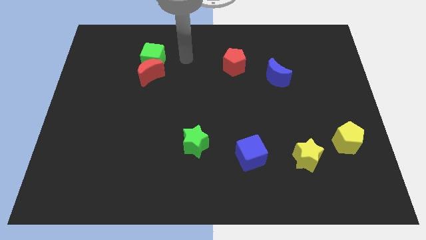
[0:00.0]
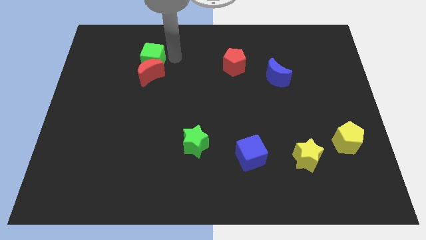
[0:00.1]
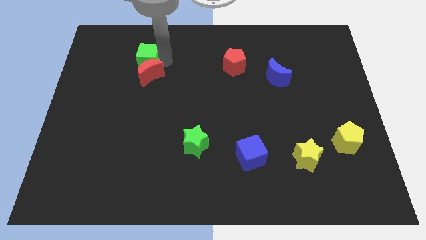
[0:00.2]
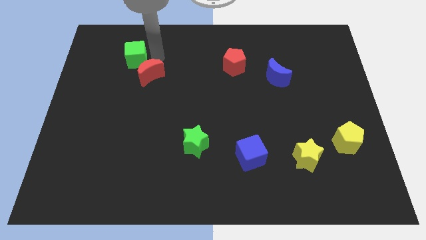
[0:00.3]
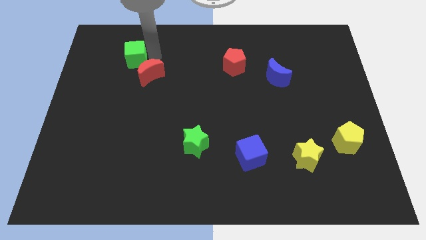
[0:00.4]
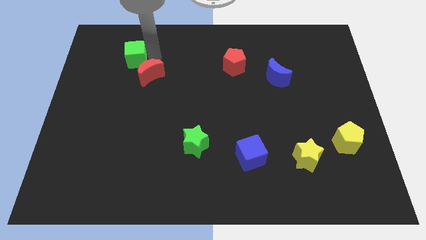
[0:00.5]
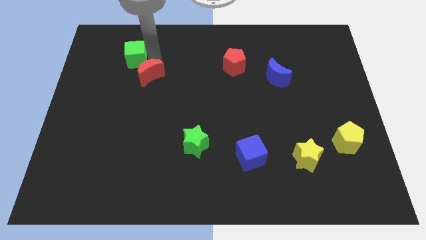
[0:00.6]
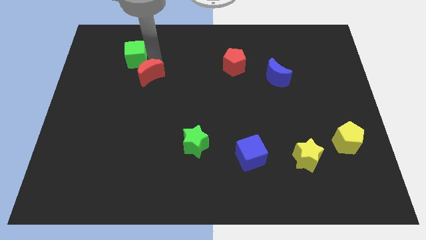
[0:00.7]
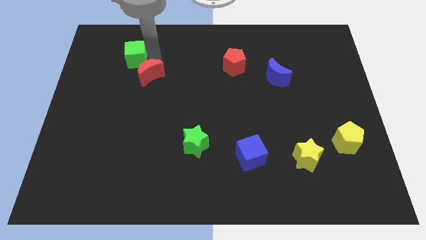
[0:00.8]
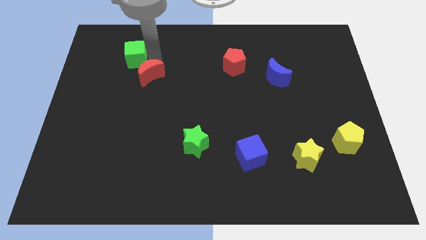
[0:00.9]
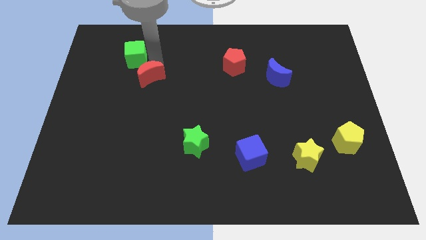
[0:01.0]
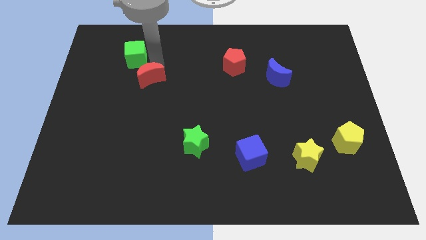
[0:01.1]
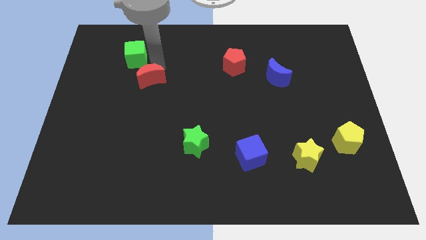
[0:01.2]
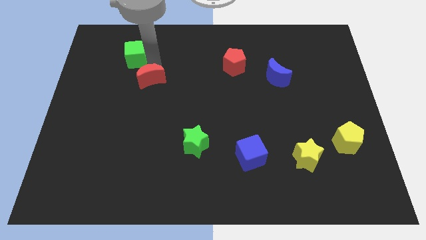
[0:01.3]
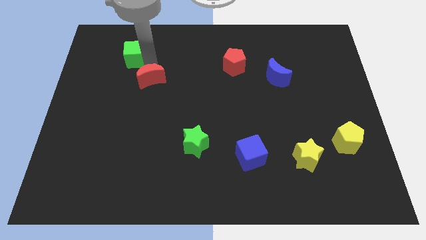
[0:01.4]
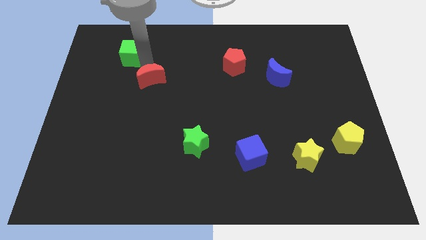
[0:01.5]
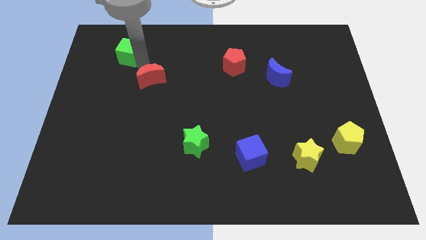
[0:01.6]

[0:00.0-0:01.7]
move the red moon away from the green cube

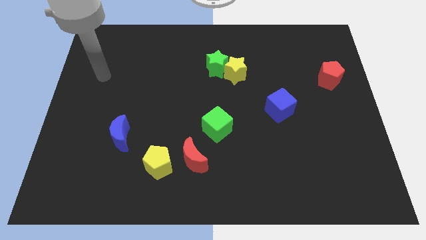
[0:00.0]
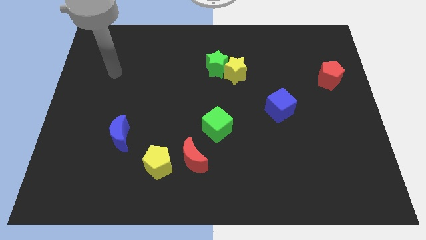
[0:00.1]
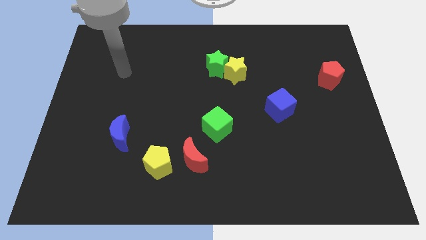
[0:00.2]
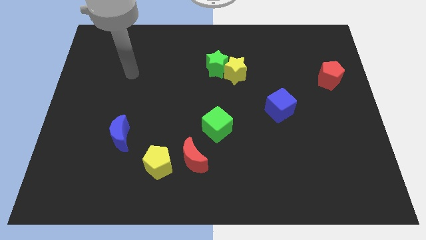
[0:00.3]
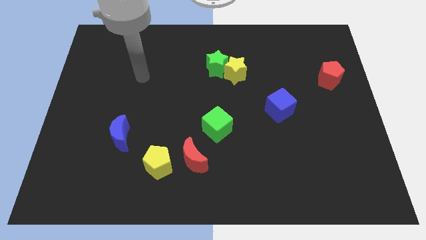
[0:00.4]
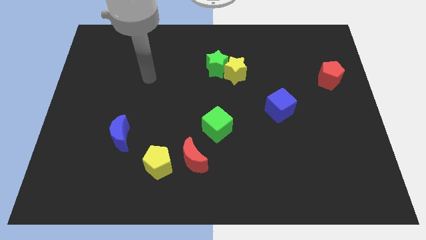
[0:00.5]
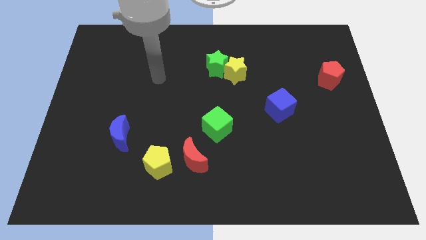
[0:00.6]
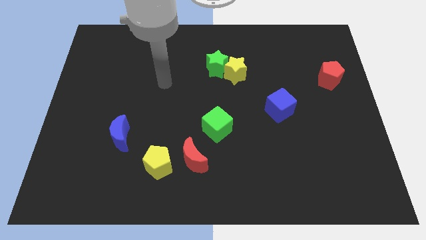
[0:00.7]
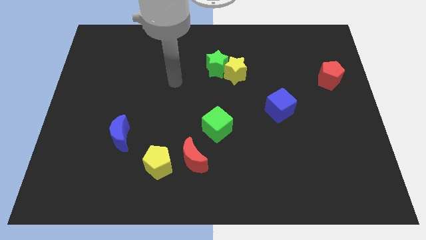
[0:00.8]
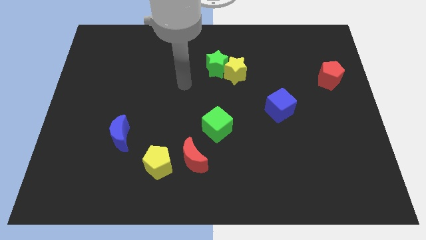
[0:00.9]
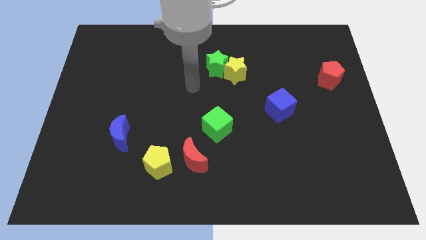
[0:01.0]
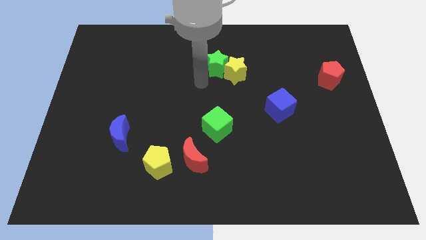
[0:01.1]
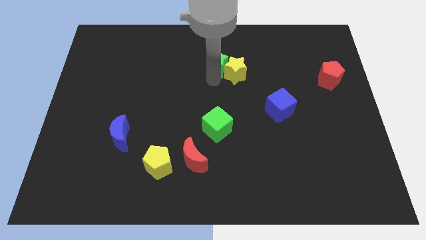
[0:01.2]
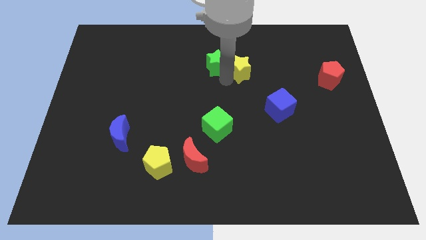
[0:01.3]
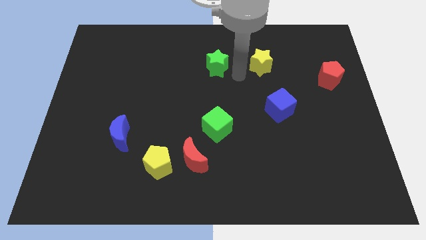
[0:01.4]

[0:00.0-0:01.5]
separate the green star from the yellow star

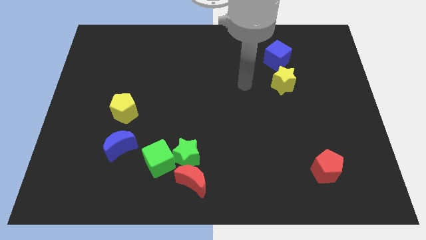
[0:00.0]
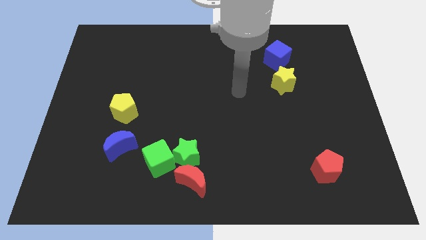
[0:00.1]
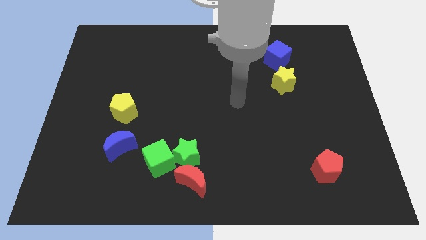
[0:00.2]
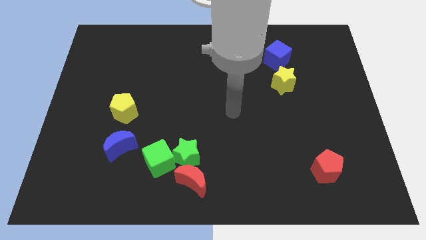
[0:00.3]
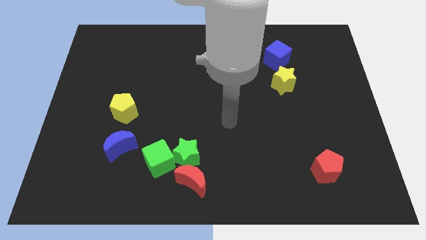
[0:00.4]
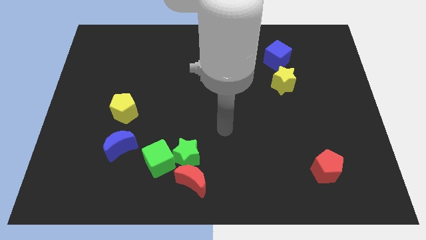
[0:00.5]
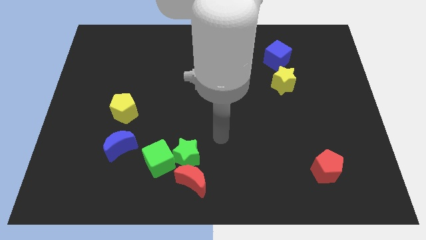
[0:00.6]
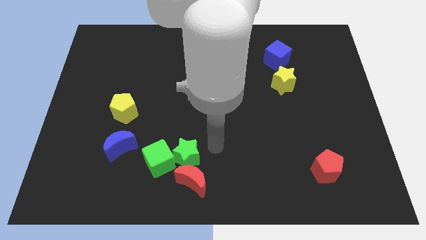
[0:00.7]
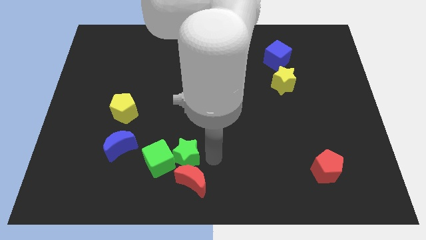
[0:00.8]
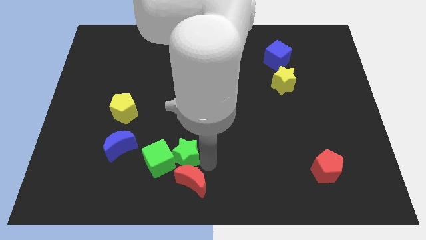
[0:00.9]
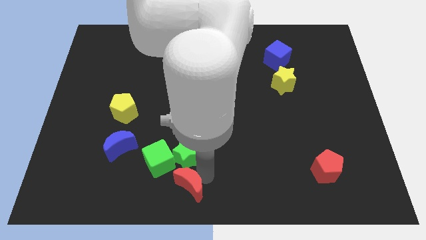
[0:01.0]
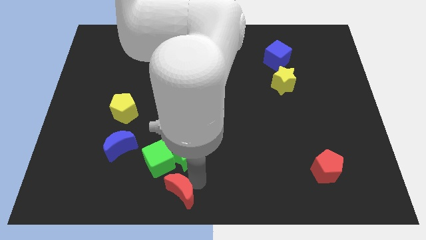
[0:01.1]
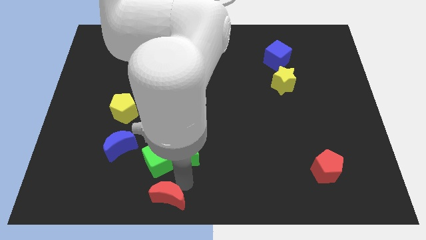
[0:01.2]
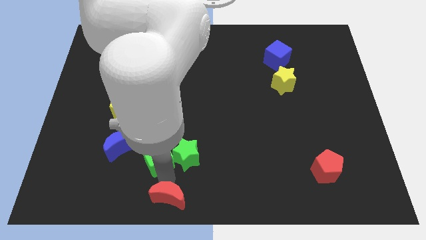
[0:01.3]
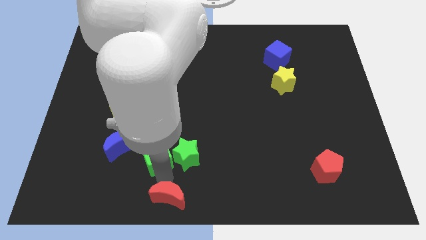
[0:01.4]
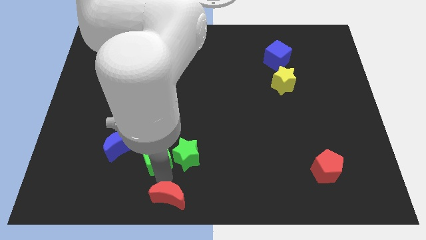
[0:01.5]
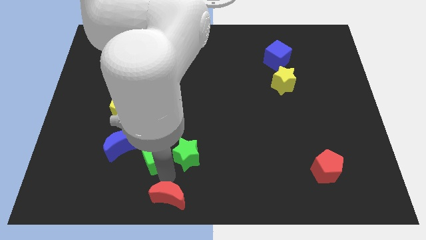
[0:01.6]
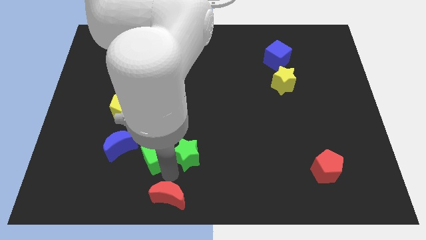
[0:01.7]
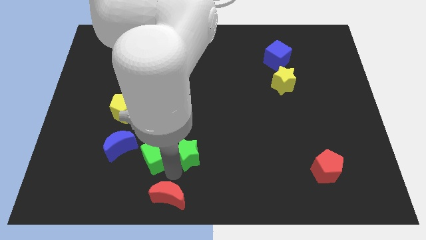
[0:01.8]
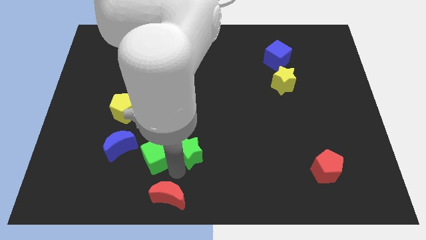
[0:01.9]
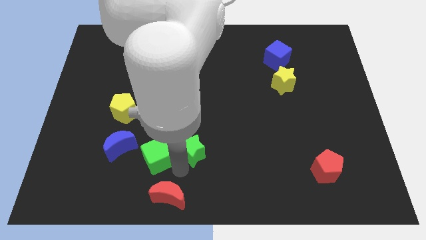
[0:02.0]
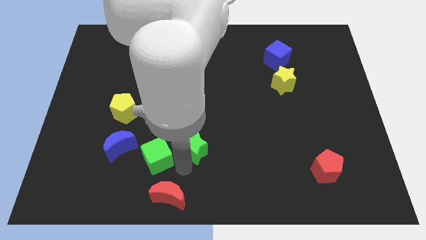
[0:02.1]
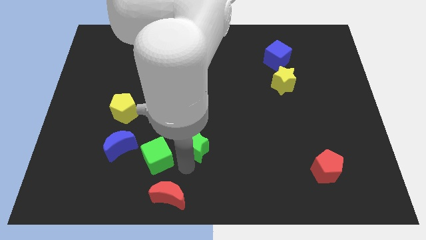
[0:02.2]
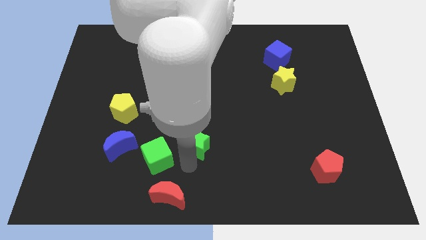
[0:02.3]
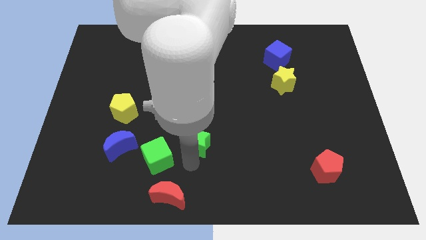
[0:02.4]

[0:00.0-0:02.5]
pull the green star apart from the green cube and red moon

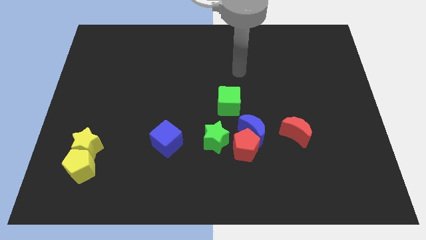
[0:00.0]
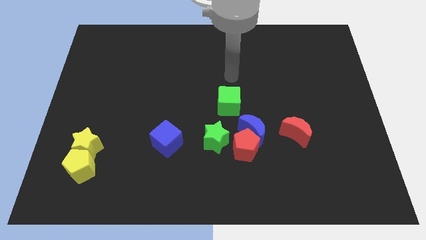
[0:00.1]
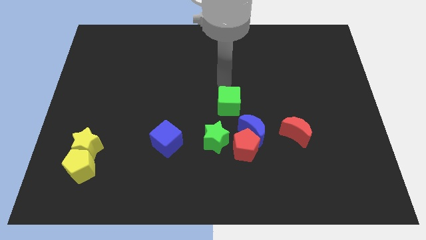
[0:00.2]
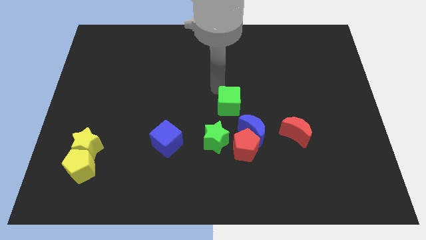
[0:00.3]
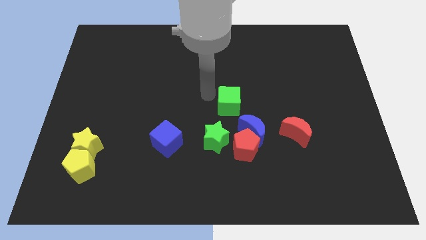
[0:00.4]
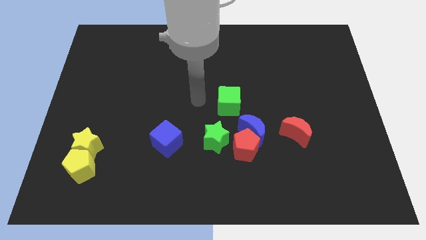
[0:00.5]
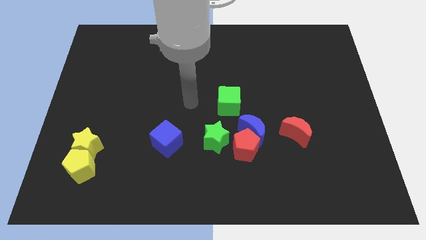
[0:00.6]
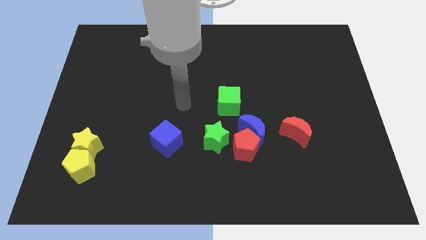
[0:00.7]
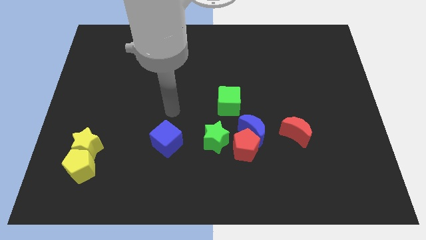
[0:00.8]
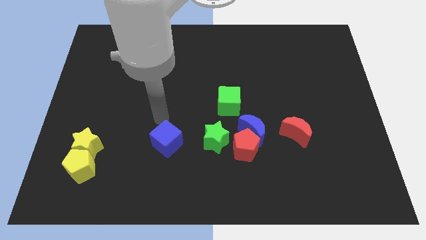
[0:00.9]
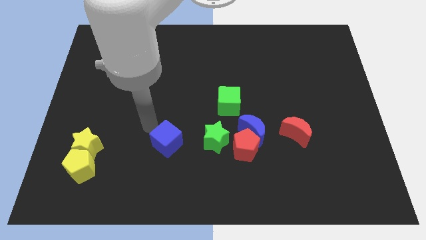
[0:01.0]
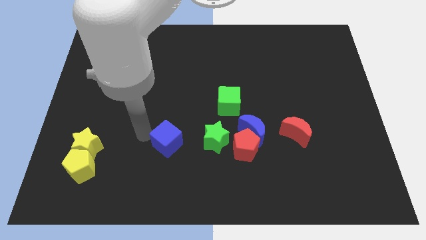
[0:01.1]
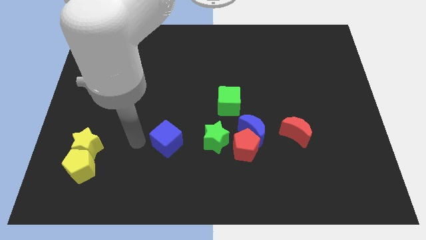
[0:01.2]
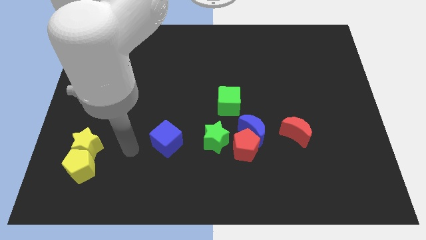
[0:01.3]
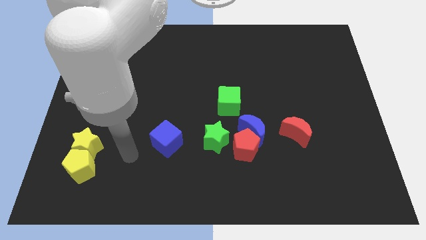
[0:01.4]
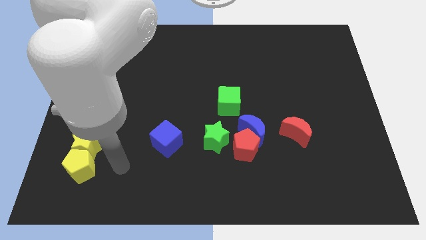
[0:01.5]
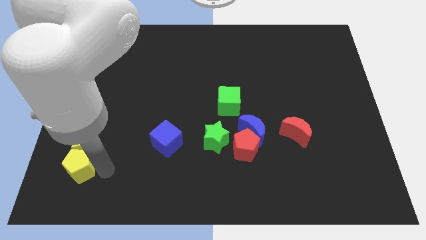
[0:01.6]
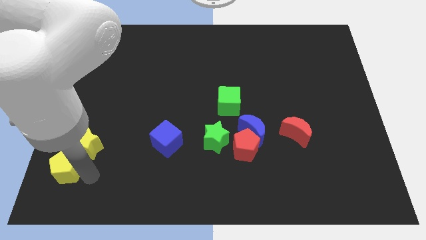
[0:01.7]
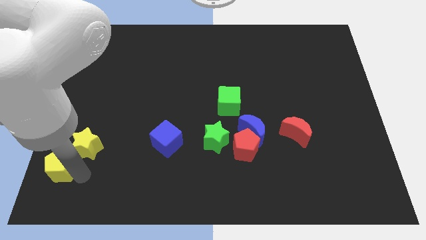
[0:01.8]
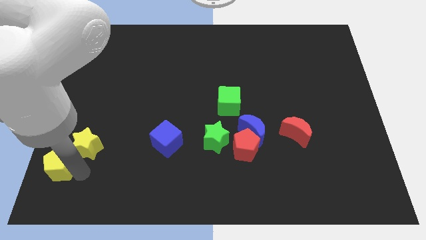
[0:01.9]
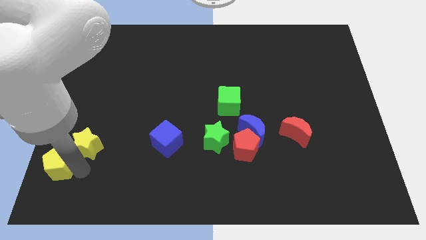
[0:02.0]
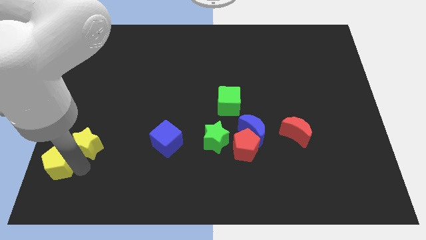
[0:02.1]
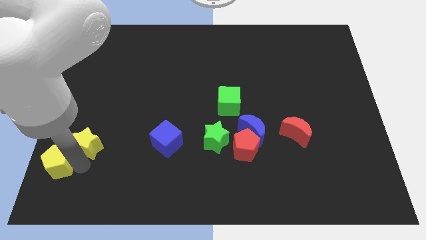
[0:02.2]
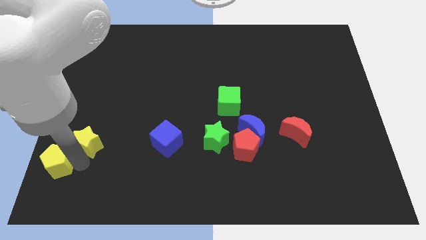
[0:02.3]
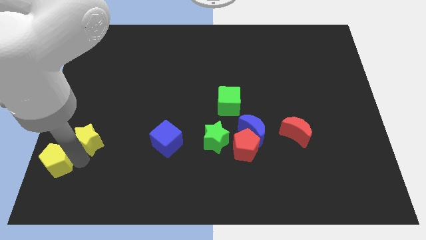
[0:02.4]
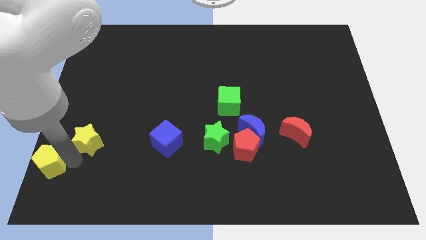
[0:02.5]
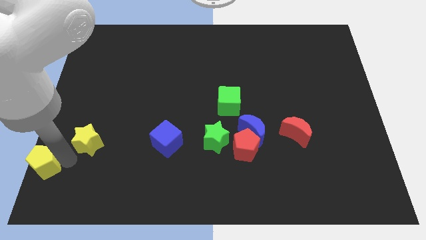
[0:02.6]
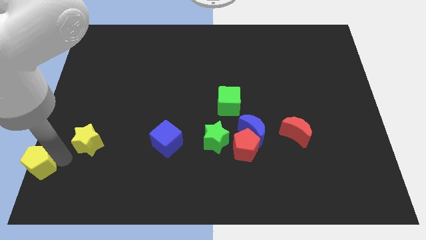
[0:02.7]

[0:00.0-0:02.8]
separate the yellow star from the yellow pentagon

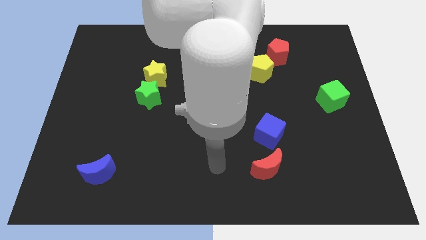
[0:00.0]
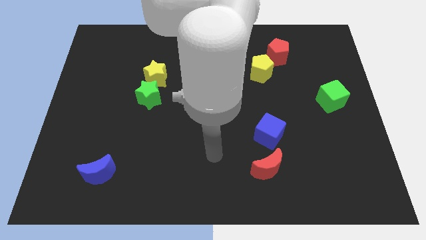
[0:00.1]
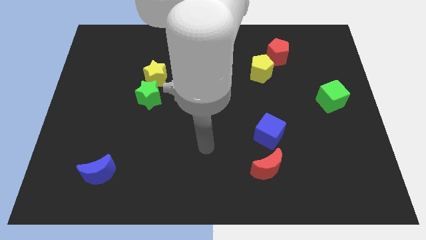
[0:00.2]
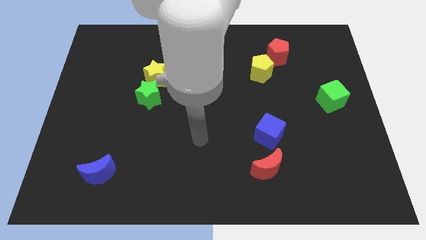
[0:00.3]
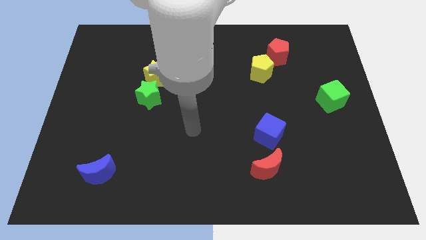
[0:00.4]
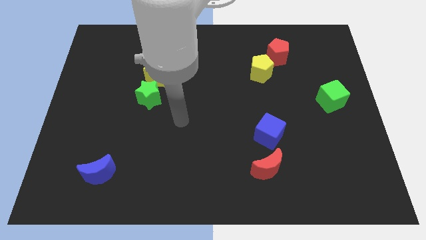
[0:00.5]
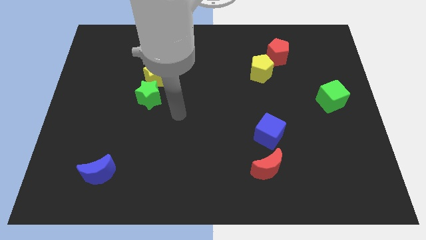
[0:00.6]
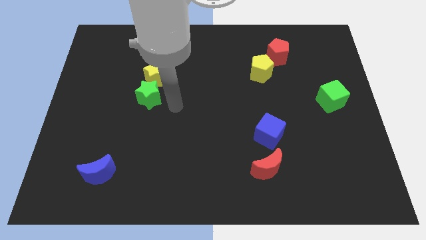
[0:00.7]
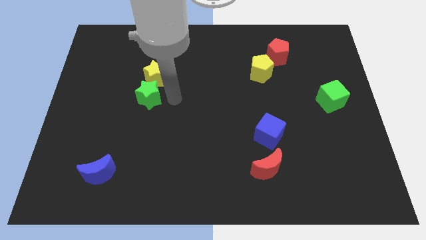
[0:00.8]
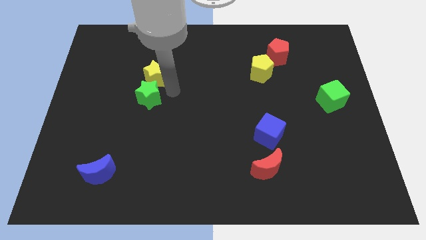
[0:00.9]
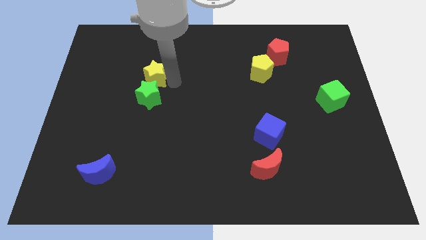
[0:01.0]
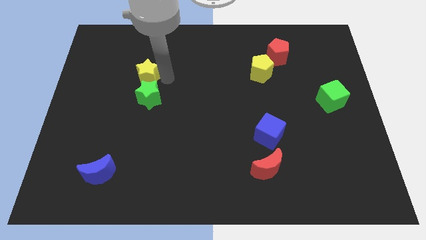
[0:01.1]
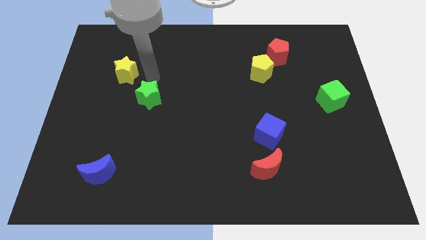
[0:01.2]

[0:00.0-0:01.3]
move the green star away from the yellow star
